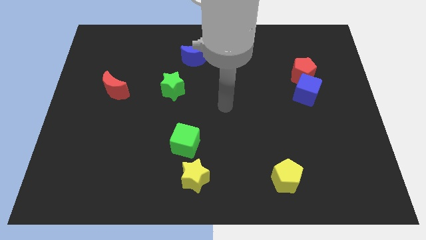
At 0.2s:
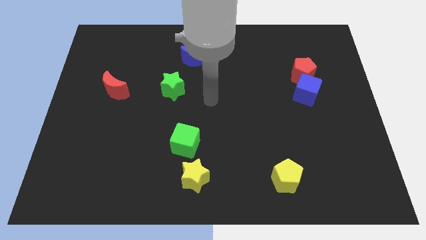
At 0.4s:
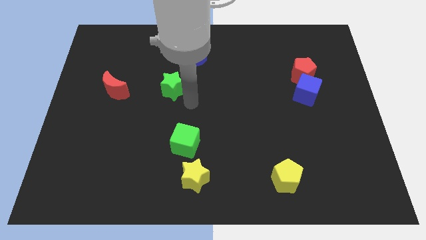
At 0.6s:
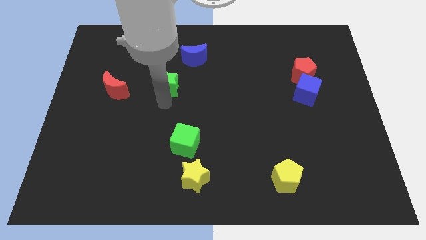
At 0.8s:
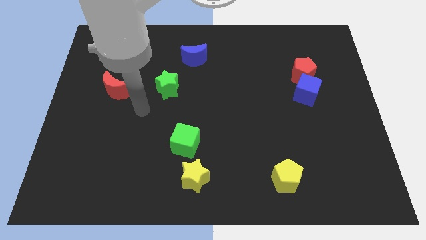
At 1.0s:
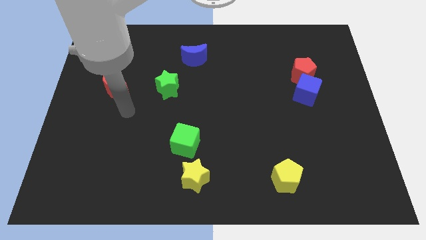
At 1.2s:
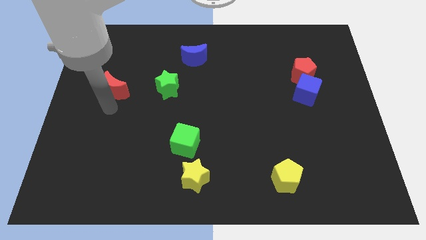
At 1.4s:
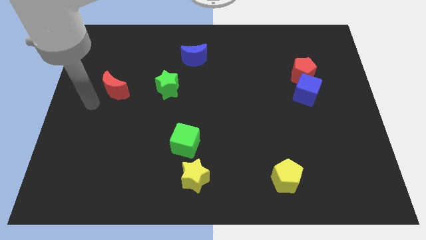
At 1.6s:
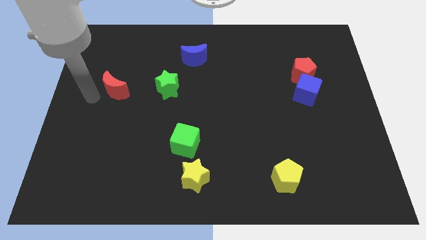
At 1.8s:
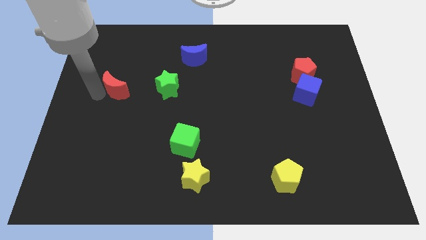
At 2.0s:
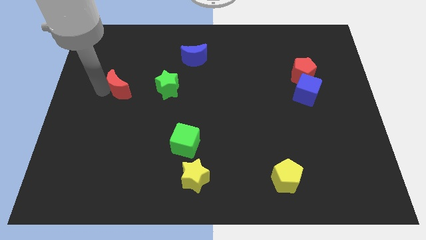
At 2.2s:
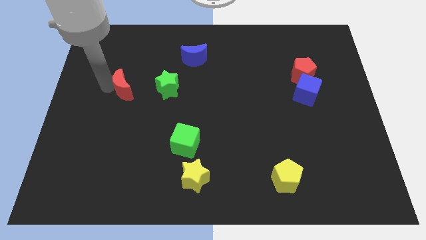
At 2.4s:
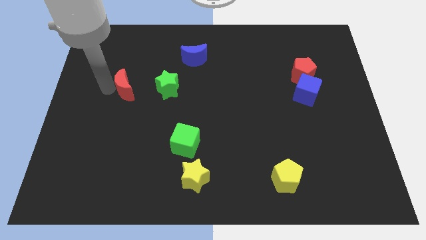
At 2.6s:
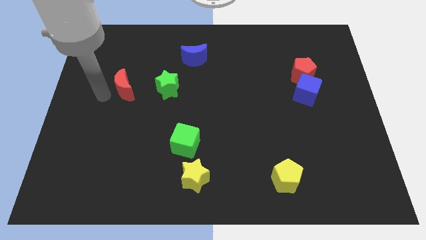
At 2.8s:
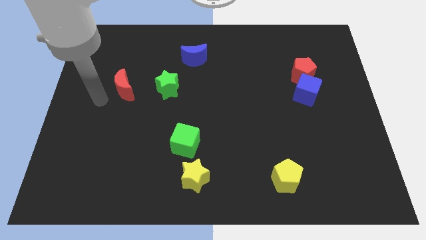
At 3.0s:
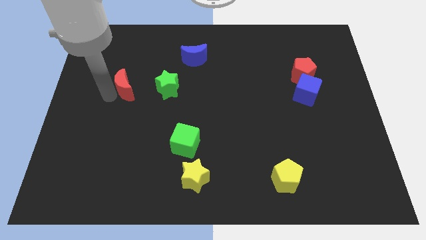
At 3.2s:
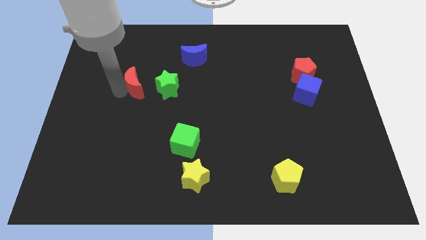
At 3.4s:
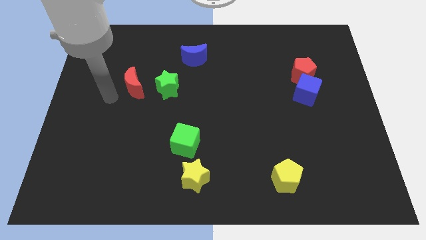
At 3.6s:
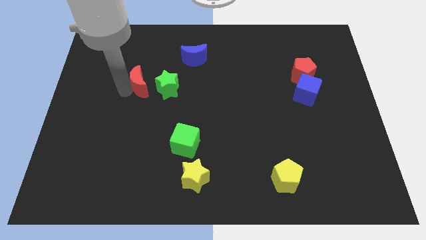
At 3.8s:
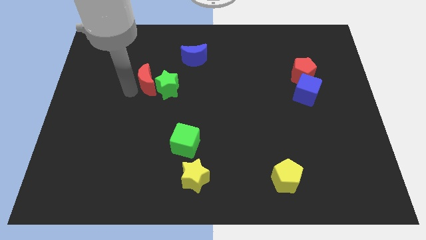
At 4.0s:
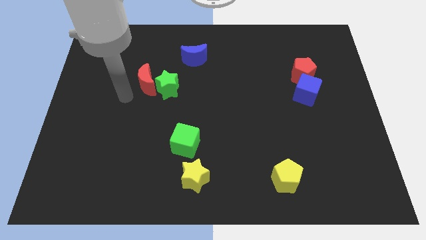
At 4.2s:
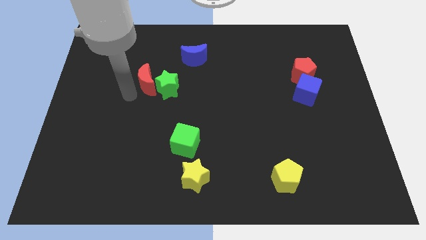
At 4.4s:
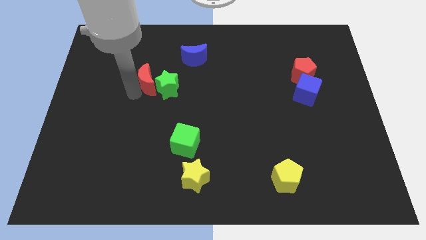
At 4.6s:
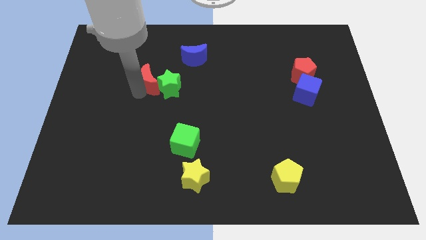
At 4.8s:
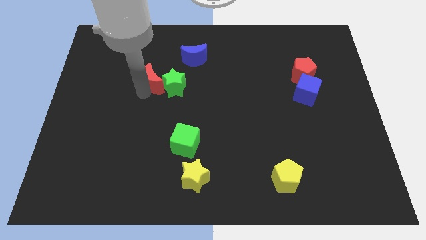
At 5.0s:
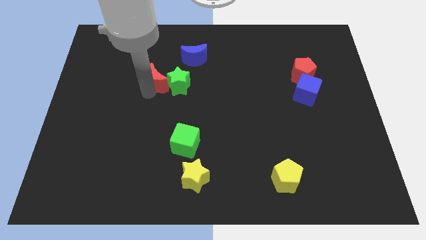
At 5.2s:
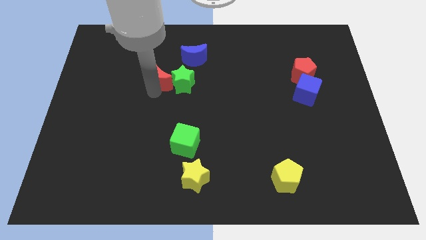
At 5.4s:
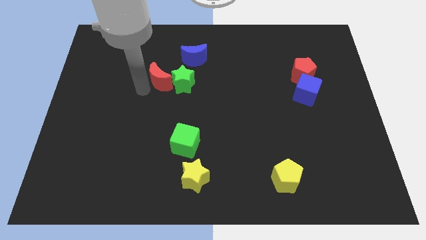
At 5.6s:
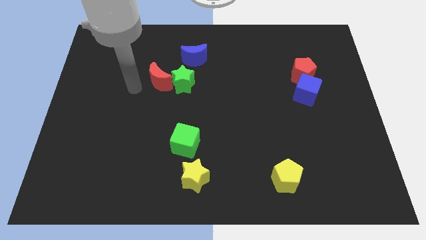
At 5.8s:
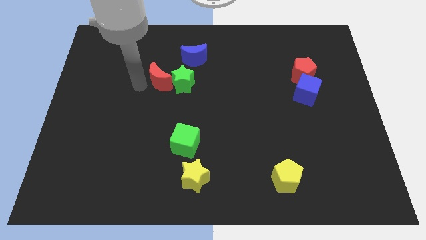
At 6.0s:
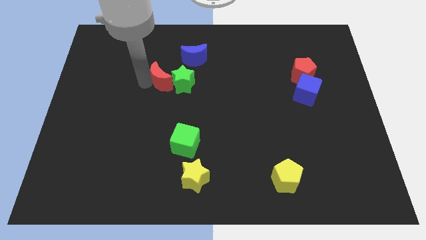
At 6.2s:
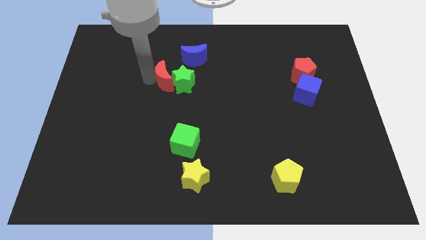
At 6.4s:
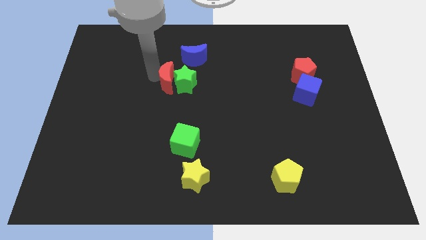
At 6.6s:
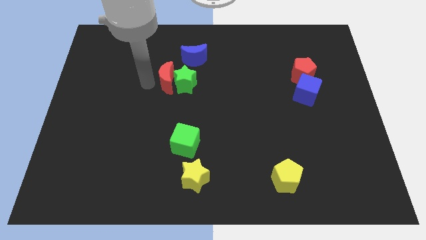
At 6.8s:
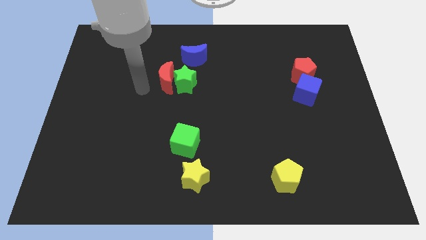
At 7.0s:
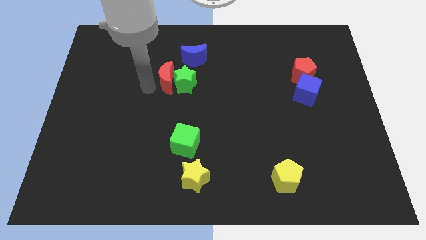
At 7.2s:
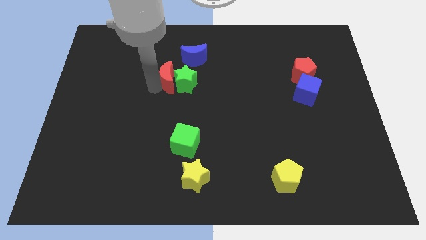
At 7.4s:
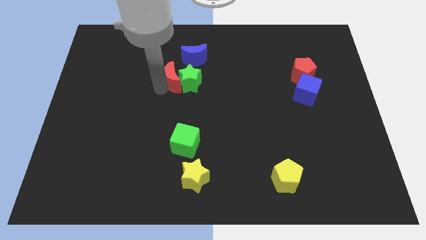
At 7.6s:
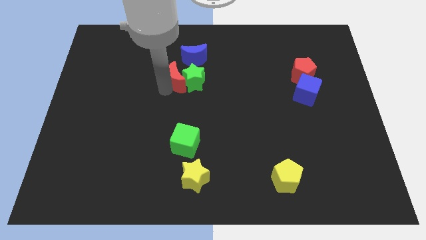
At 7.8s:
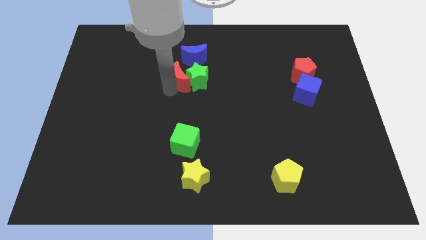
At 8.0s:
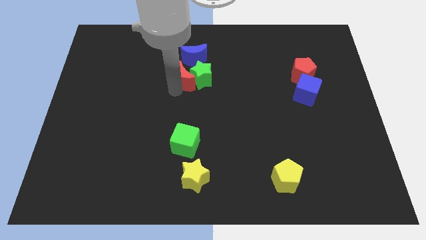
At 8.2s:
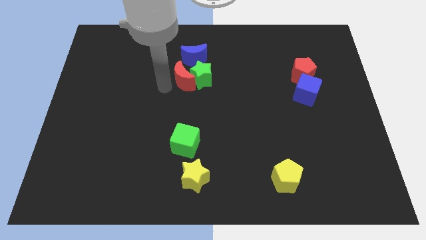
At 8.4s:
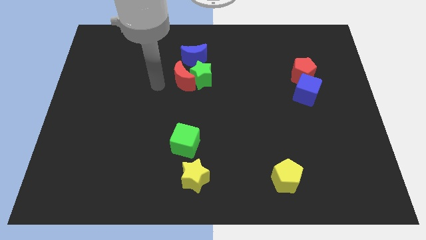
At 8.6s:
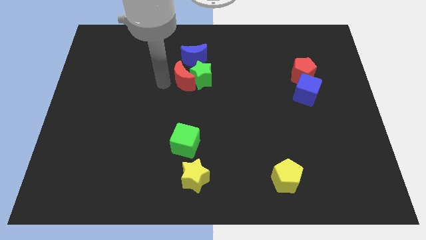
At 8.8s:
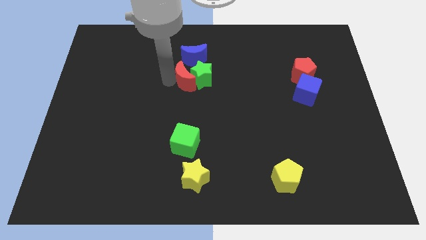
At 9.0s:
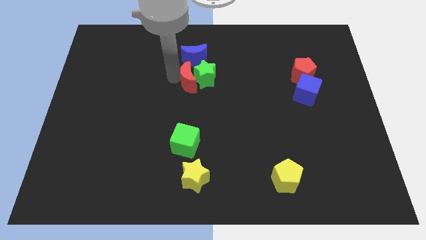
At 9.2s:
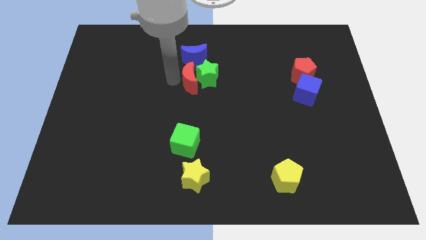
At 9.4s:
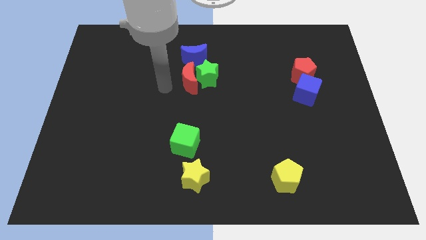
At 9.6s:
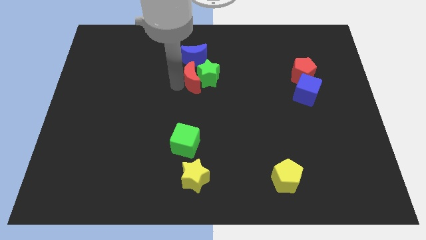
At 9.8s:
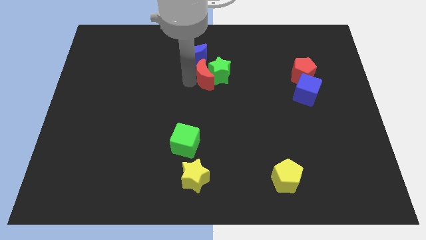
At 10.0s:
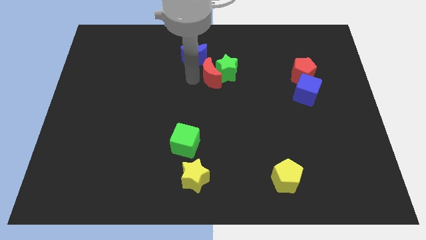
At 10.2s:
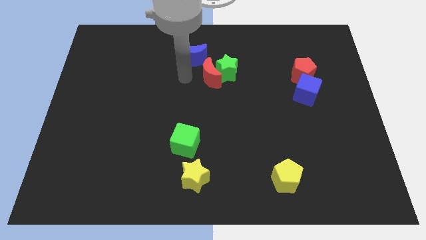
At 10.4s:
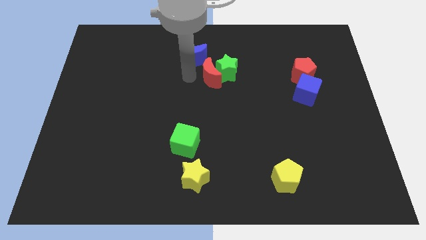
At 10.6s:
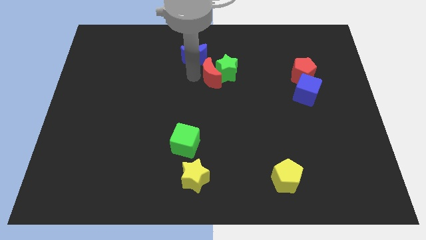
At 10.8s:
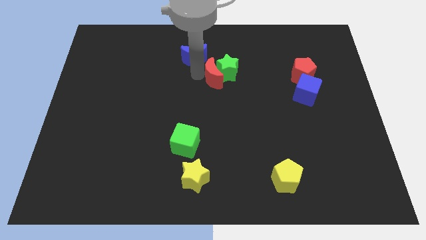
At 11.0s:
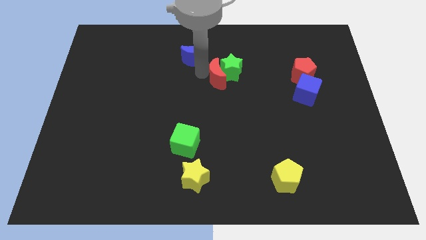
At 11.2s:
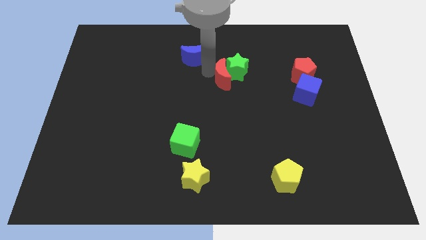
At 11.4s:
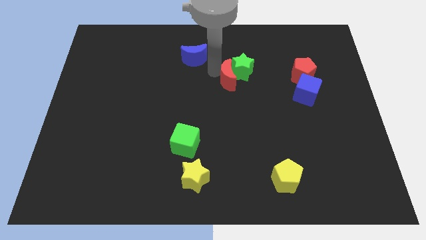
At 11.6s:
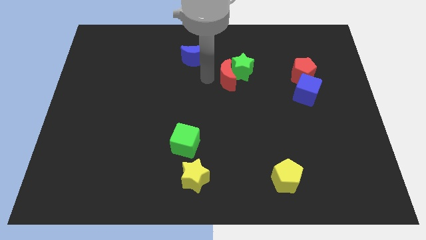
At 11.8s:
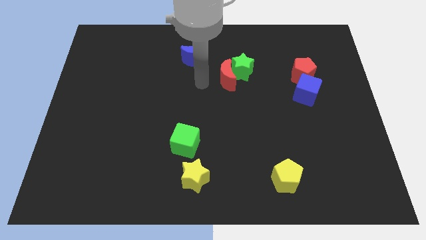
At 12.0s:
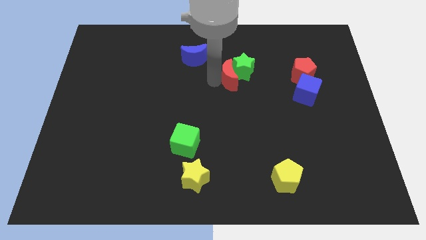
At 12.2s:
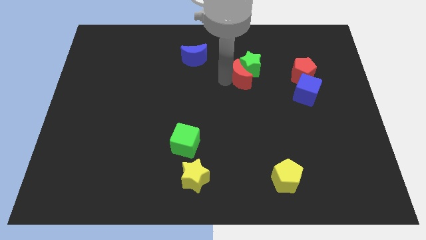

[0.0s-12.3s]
move the red moon left of the red pentagon
